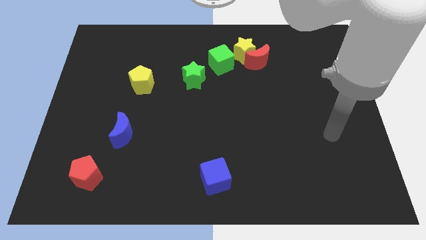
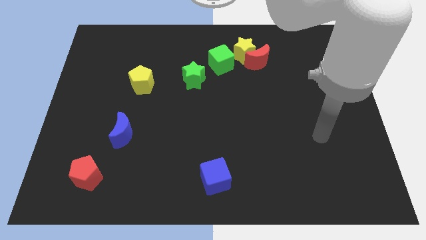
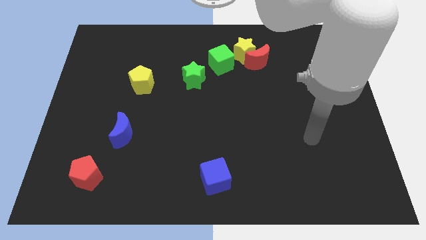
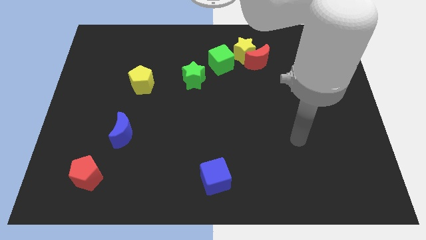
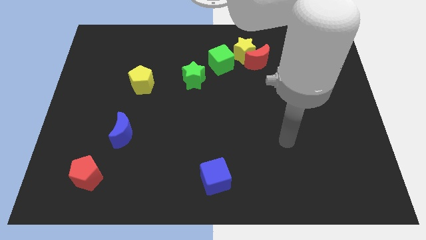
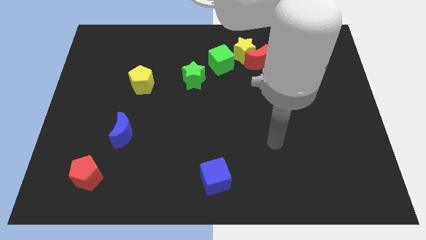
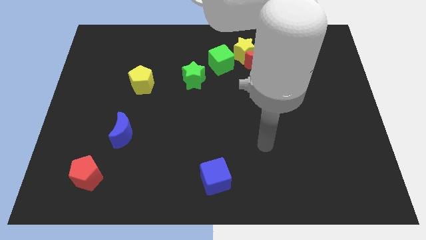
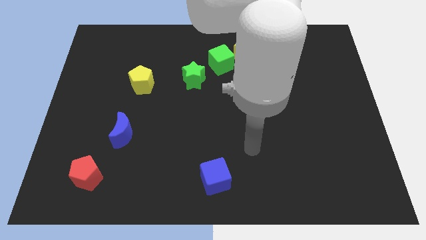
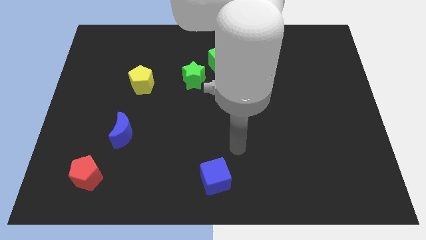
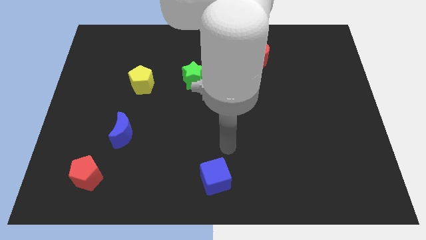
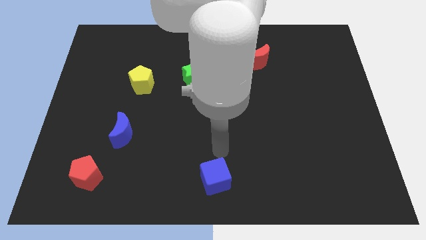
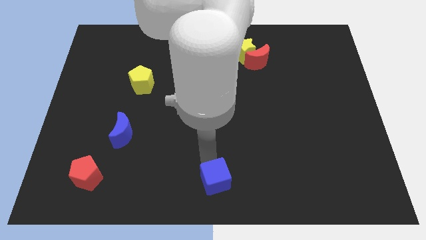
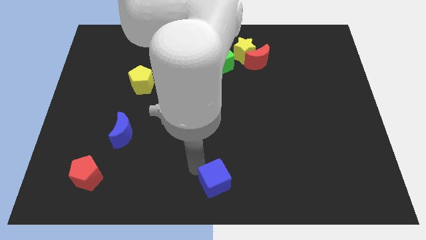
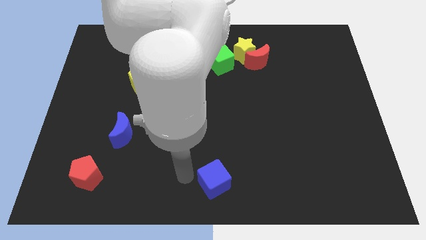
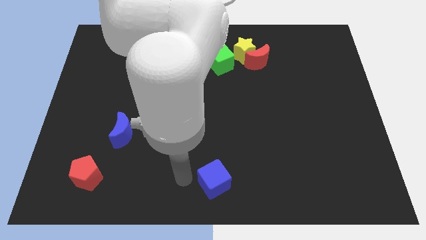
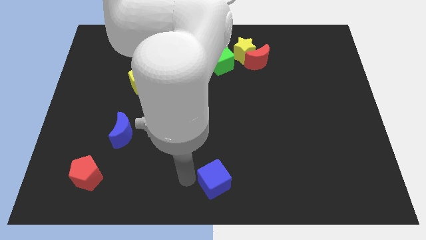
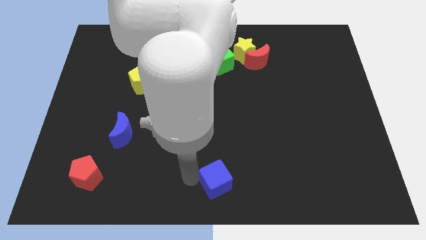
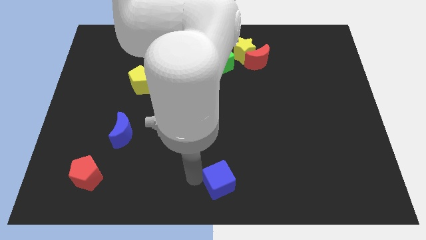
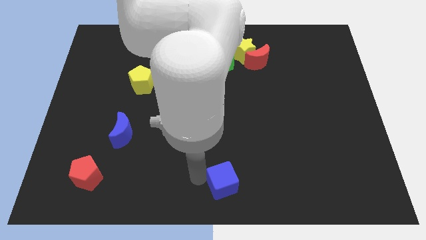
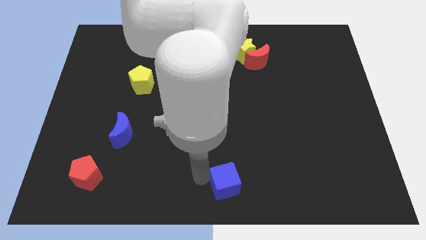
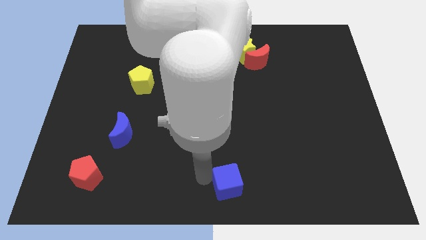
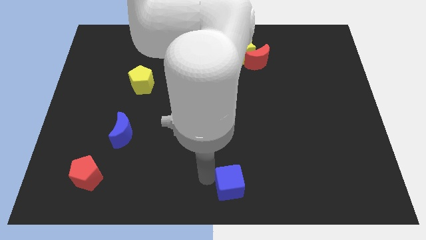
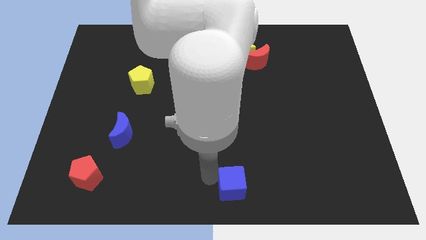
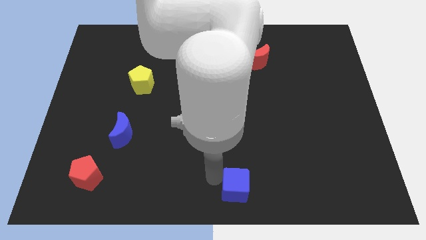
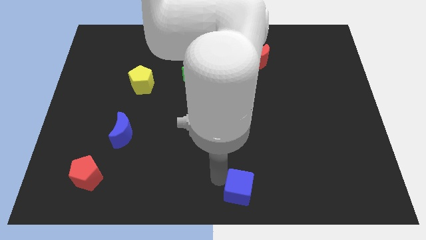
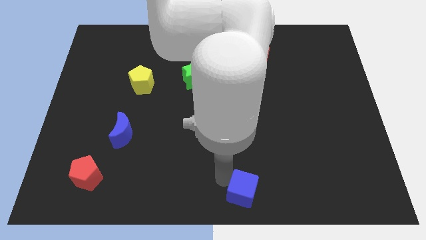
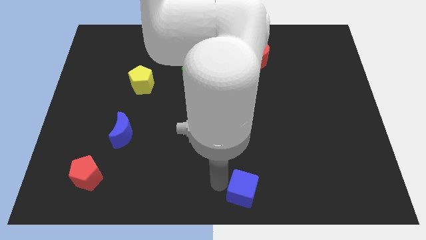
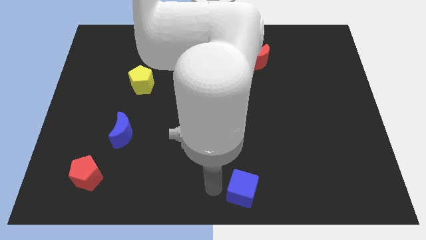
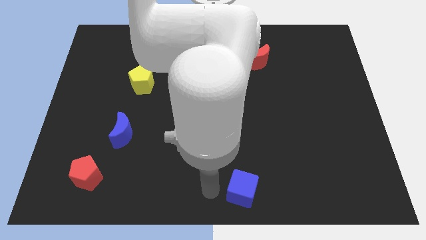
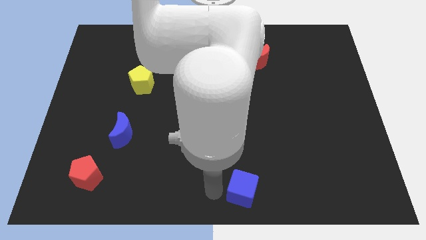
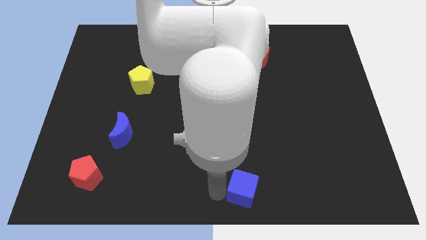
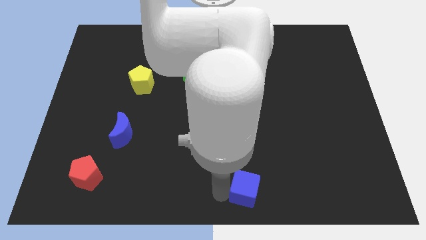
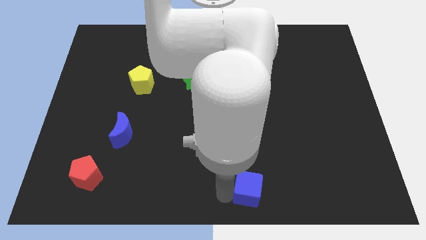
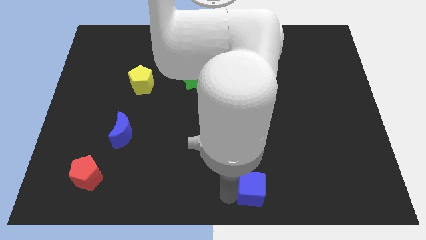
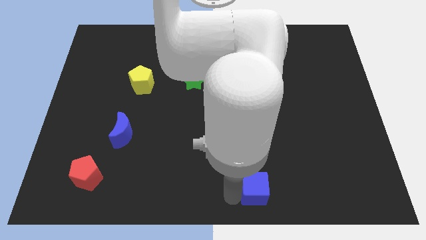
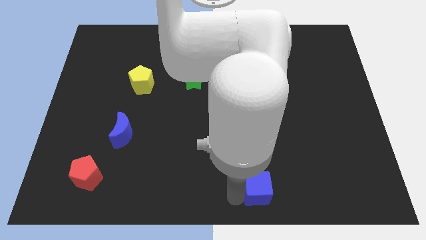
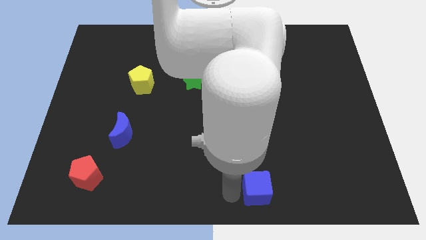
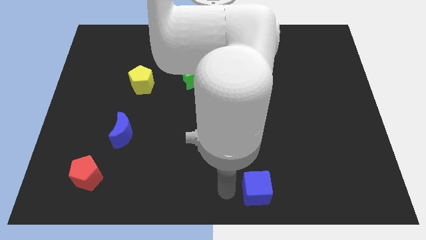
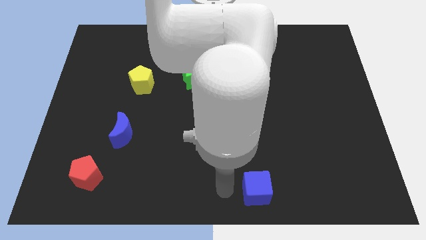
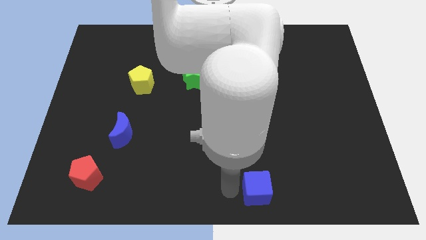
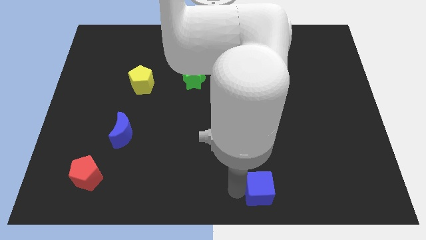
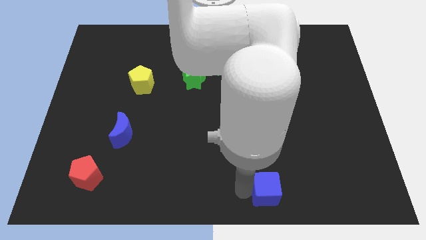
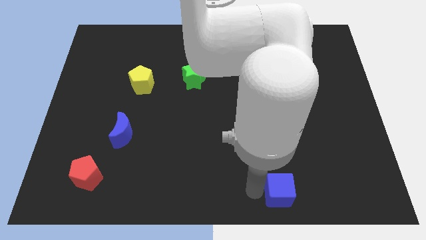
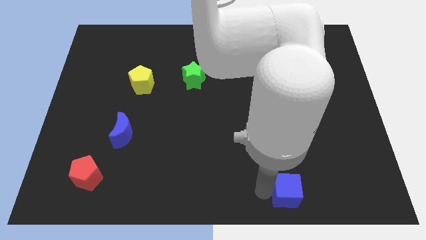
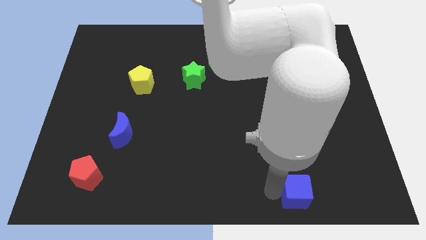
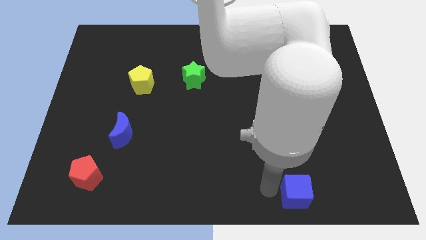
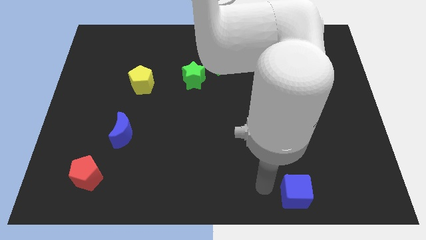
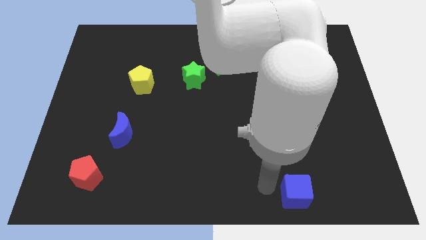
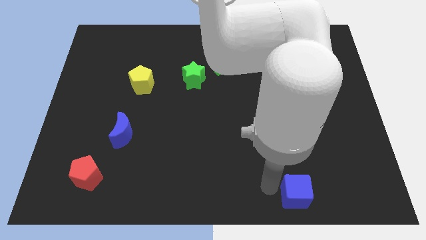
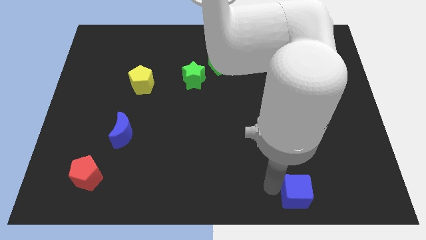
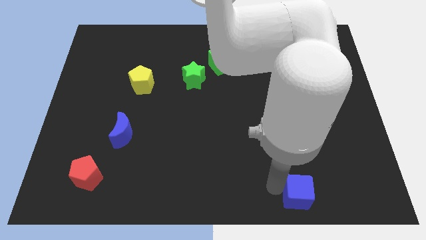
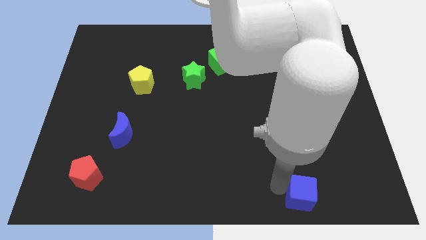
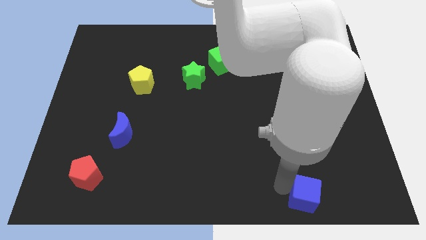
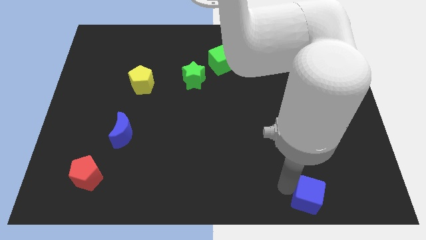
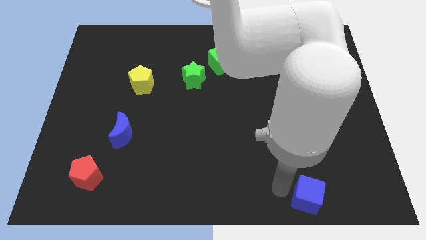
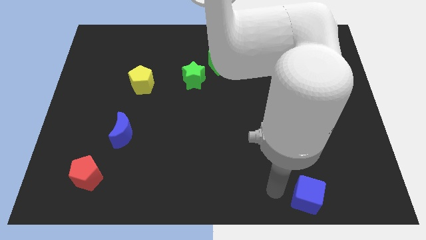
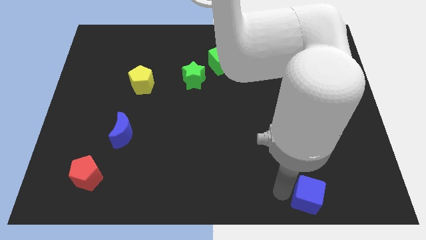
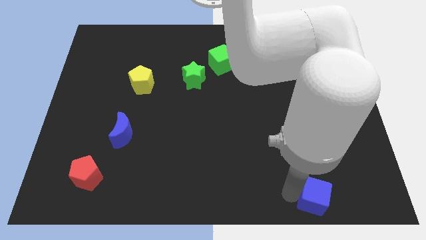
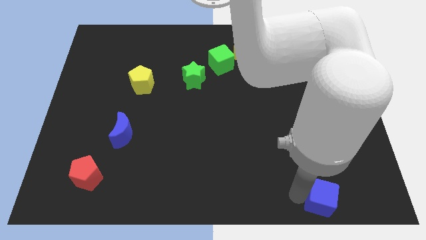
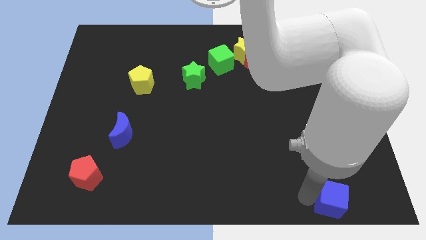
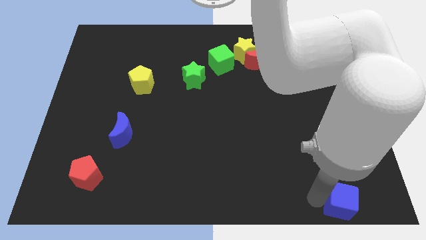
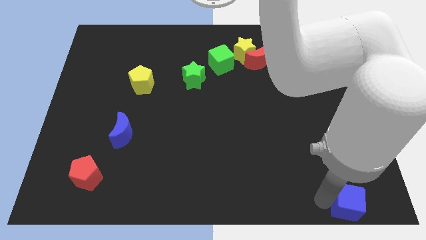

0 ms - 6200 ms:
slide the blue cube to the bottom right corner
